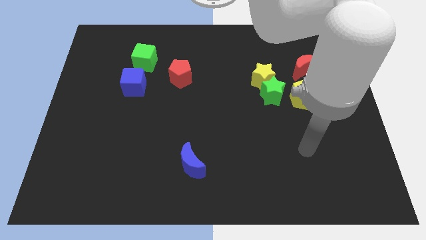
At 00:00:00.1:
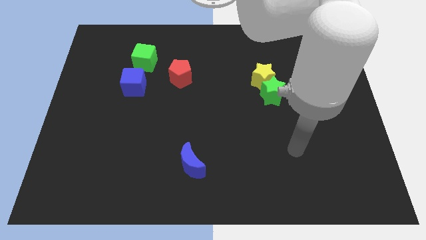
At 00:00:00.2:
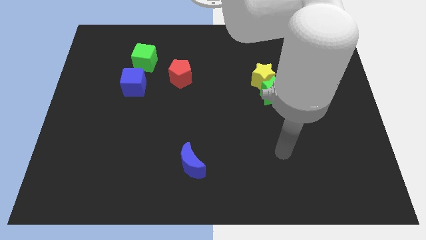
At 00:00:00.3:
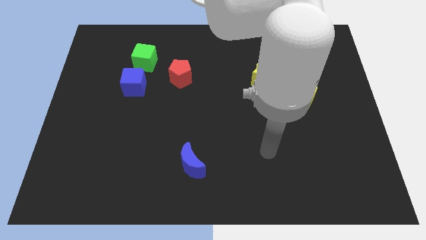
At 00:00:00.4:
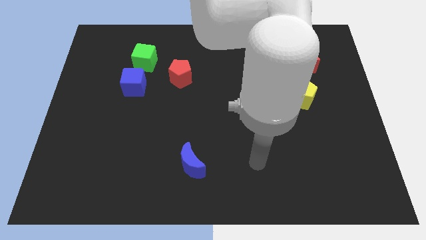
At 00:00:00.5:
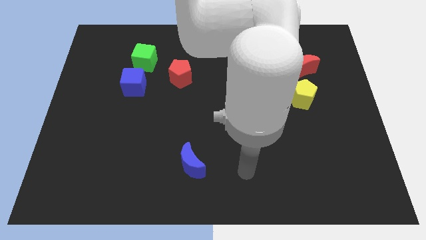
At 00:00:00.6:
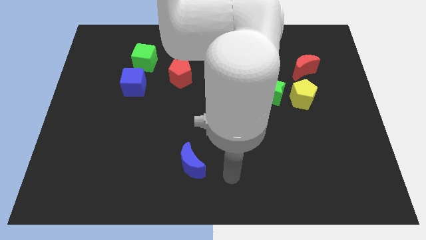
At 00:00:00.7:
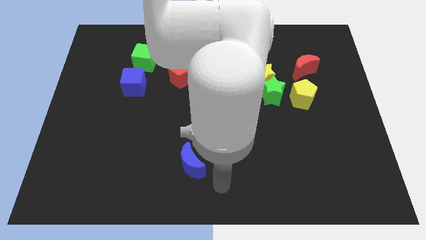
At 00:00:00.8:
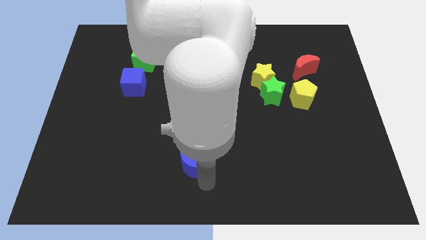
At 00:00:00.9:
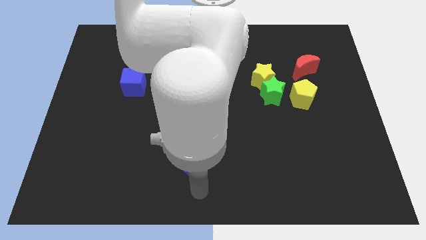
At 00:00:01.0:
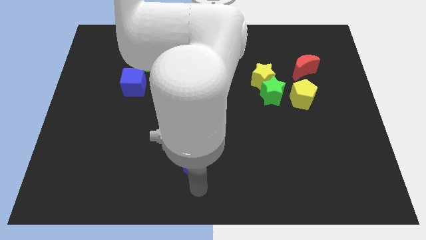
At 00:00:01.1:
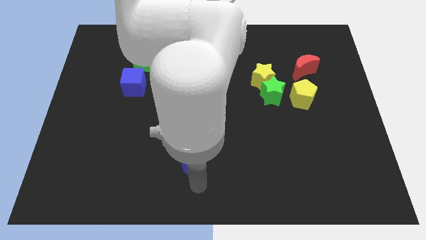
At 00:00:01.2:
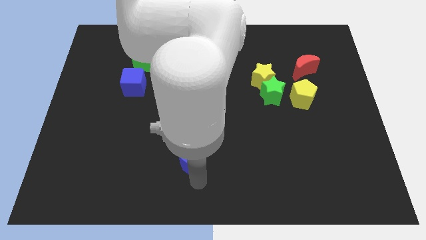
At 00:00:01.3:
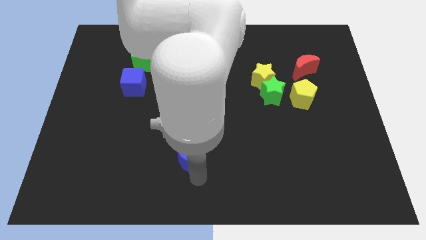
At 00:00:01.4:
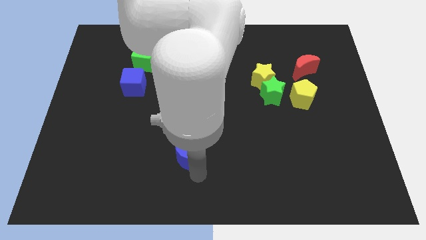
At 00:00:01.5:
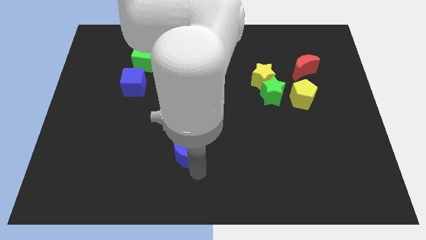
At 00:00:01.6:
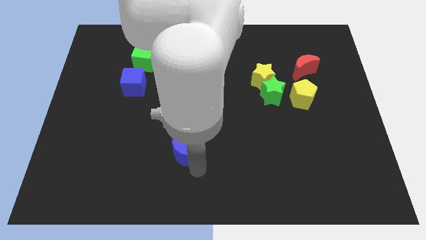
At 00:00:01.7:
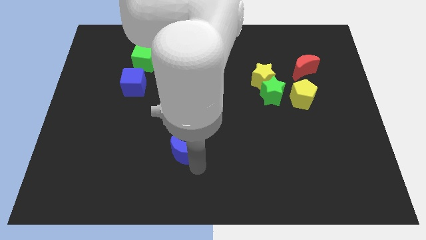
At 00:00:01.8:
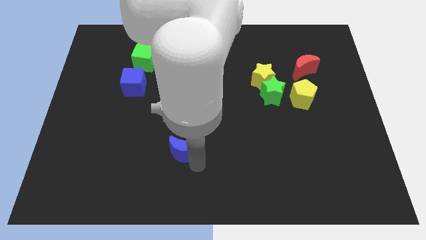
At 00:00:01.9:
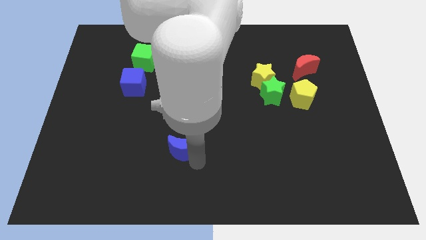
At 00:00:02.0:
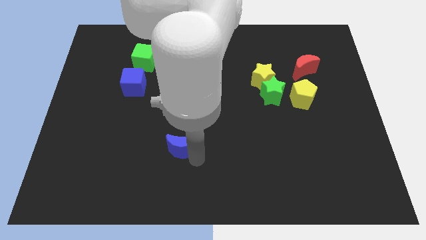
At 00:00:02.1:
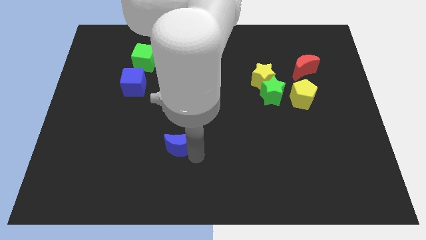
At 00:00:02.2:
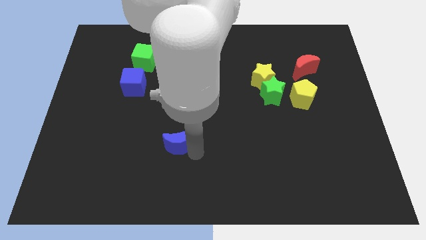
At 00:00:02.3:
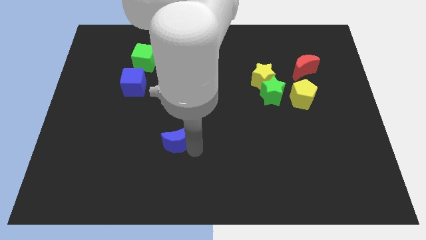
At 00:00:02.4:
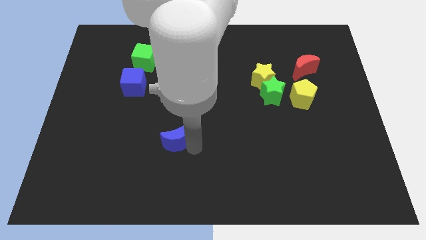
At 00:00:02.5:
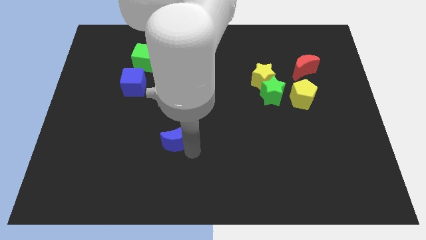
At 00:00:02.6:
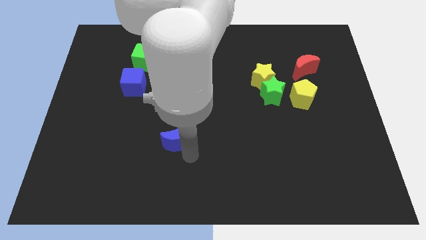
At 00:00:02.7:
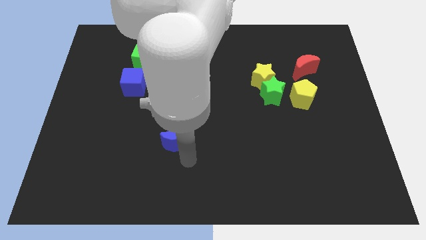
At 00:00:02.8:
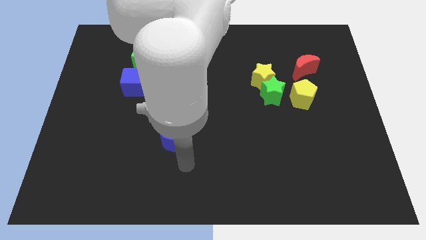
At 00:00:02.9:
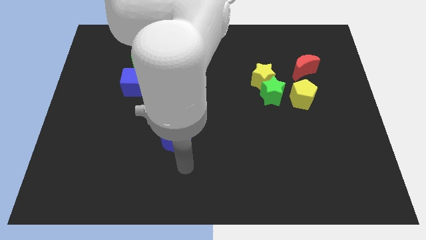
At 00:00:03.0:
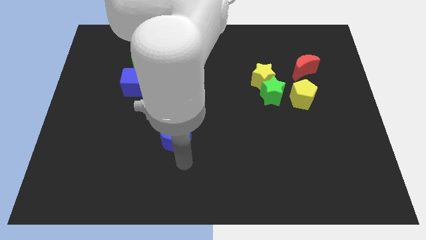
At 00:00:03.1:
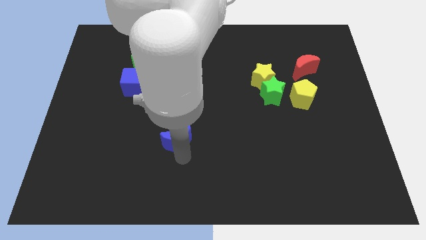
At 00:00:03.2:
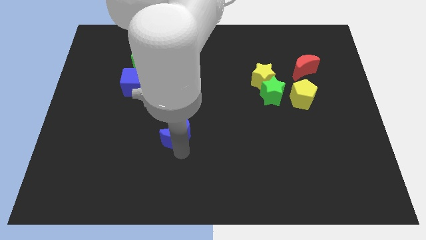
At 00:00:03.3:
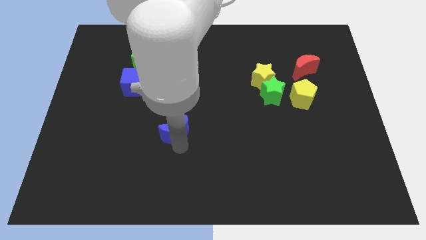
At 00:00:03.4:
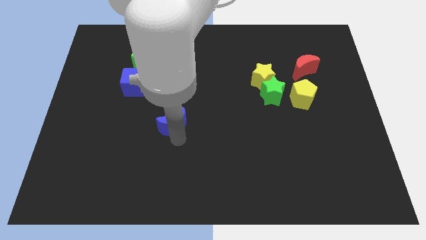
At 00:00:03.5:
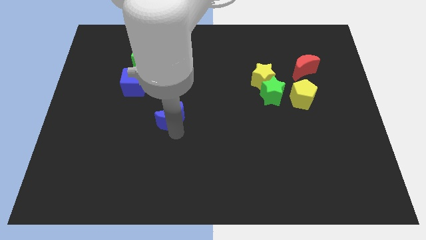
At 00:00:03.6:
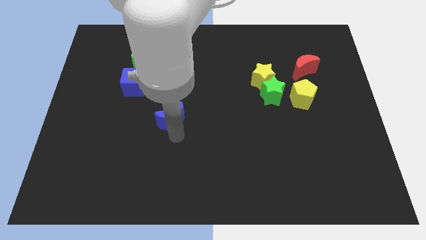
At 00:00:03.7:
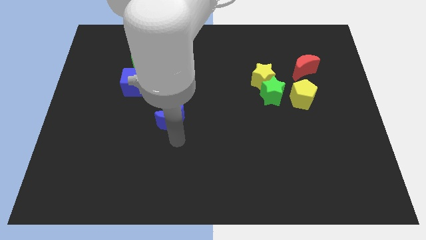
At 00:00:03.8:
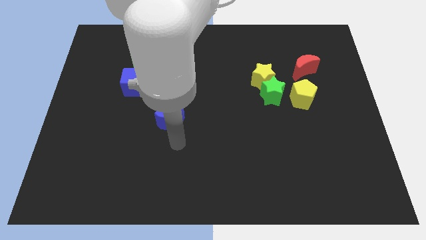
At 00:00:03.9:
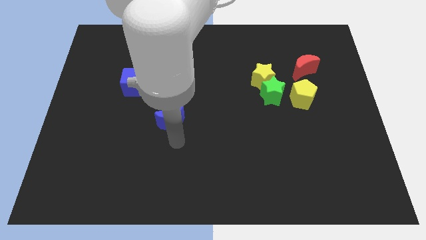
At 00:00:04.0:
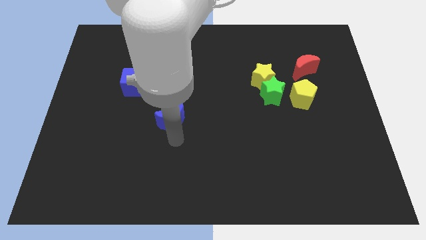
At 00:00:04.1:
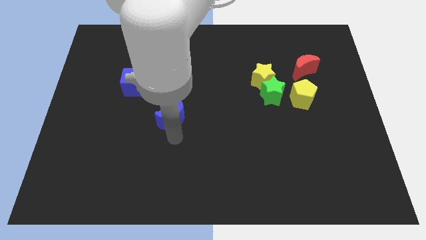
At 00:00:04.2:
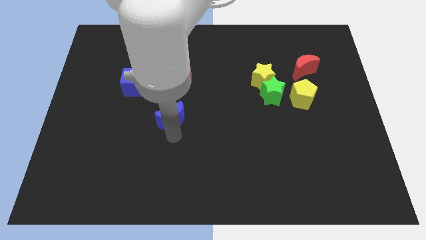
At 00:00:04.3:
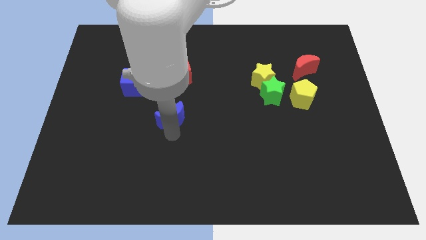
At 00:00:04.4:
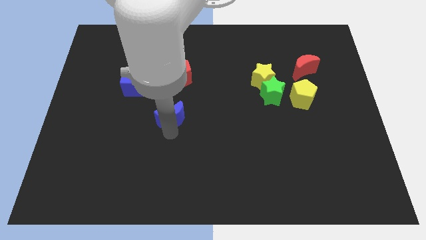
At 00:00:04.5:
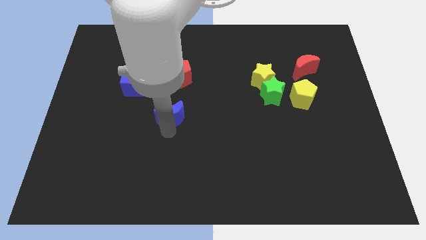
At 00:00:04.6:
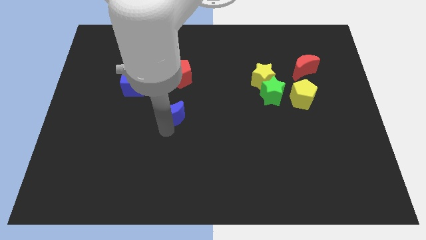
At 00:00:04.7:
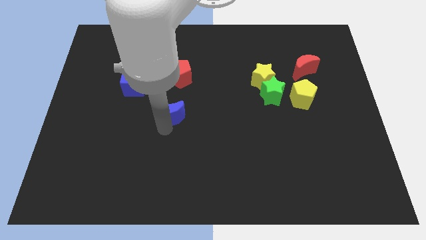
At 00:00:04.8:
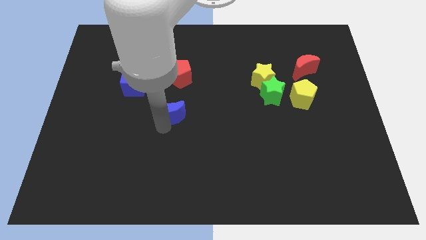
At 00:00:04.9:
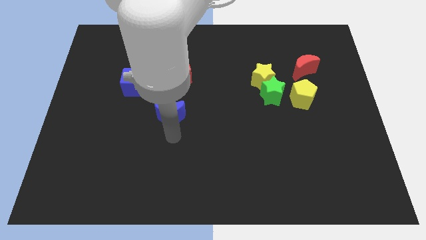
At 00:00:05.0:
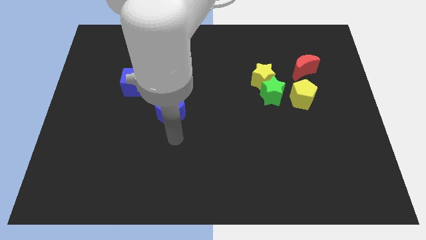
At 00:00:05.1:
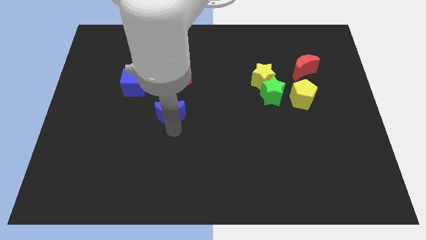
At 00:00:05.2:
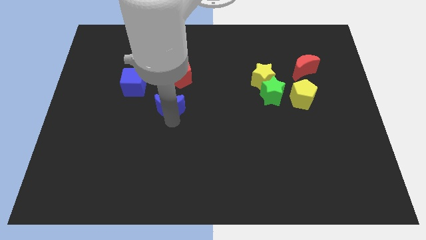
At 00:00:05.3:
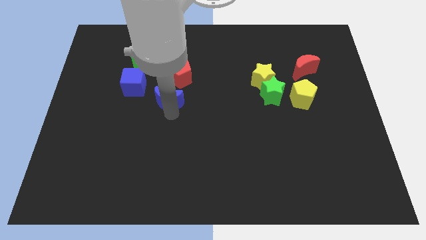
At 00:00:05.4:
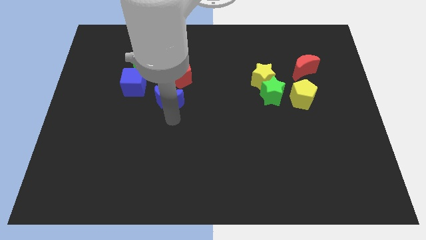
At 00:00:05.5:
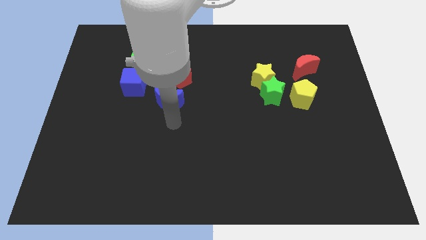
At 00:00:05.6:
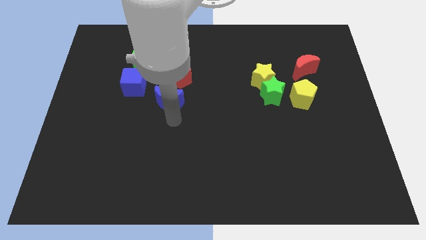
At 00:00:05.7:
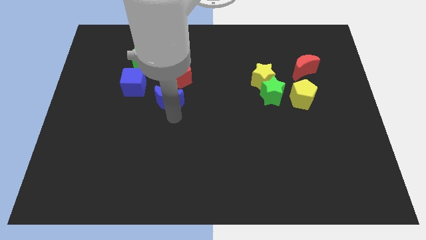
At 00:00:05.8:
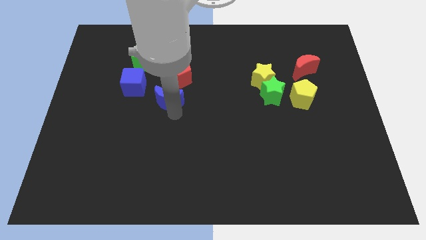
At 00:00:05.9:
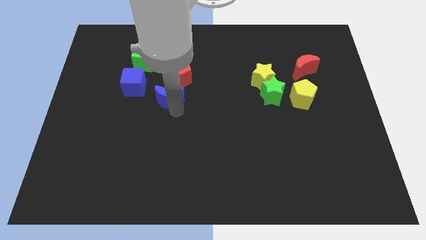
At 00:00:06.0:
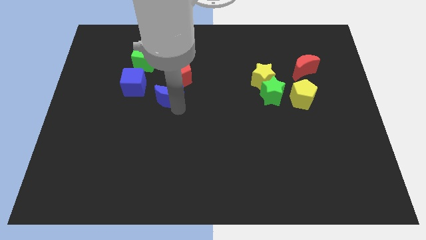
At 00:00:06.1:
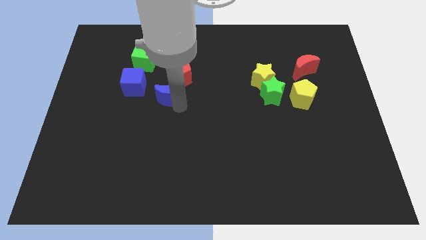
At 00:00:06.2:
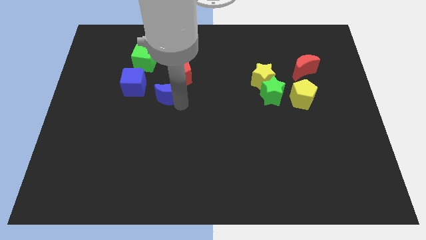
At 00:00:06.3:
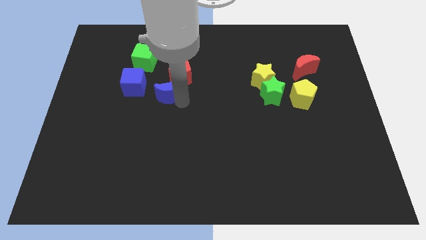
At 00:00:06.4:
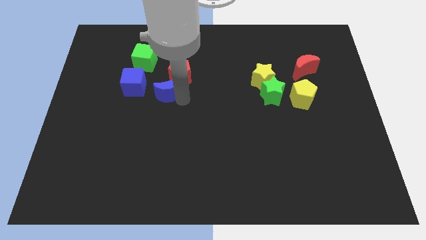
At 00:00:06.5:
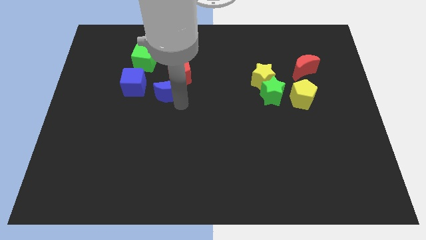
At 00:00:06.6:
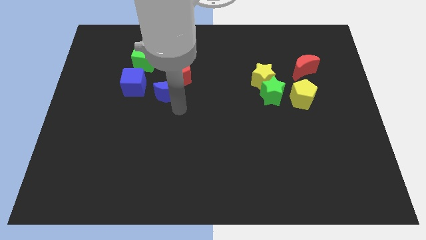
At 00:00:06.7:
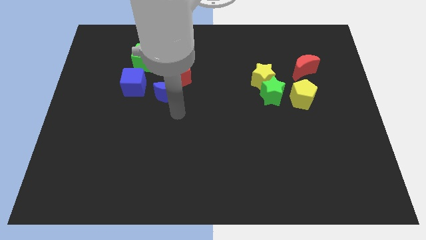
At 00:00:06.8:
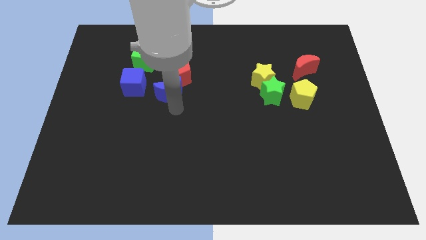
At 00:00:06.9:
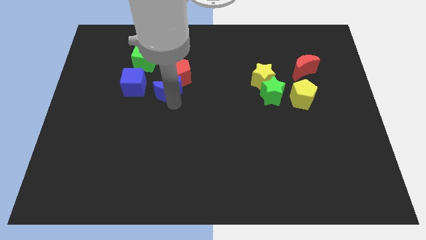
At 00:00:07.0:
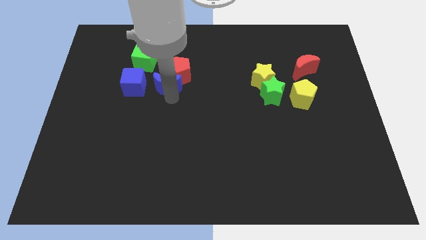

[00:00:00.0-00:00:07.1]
put the blue moon diagonally down and to the right of the green cube
